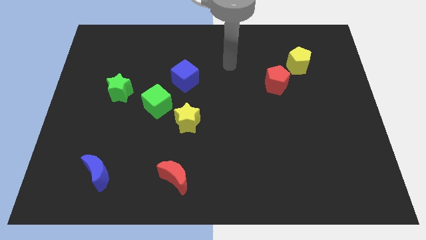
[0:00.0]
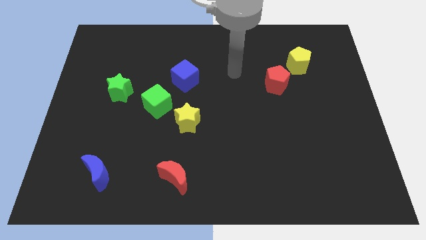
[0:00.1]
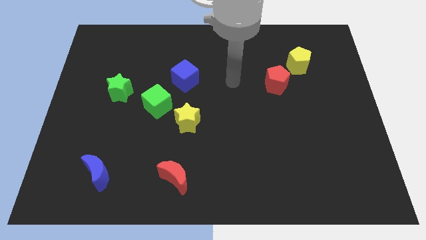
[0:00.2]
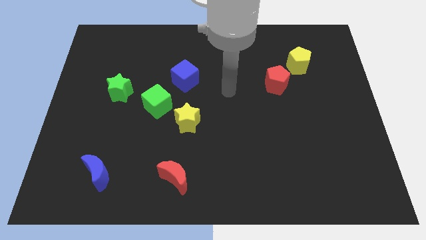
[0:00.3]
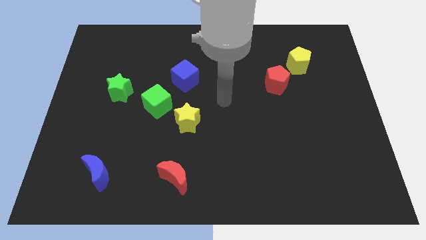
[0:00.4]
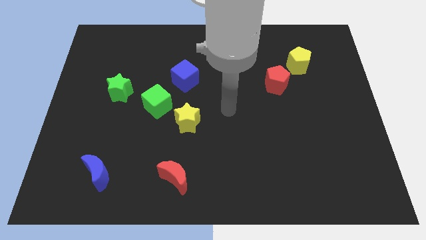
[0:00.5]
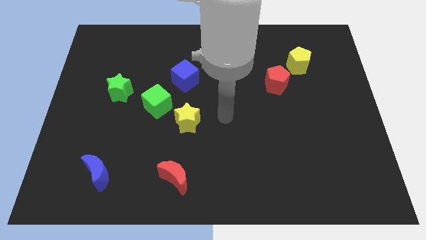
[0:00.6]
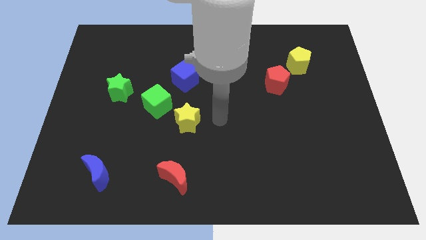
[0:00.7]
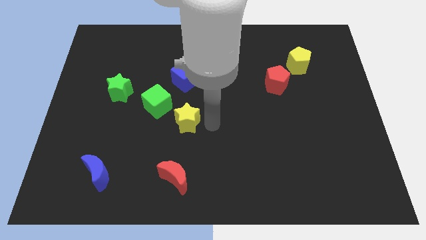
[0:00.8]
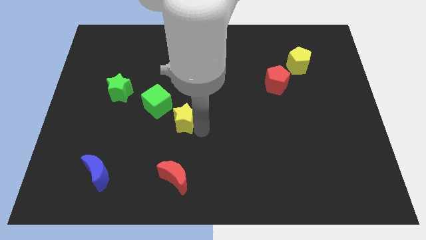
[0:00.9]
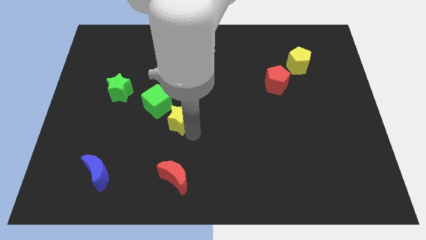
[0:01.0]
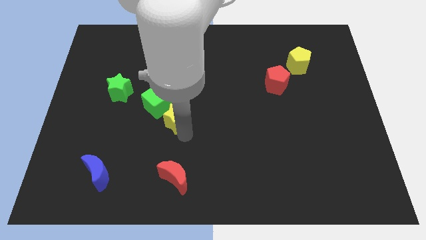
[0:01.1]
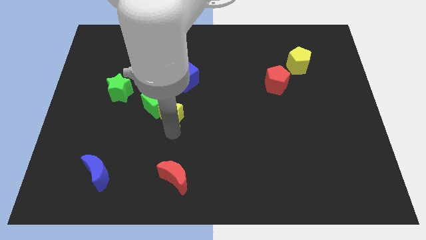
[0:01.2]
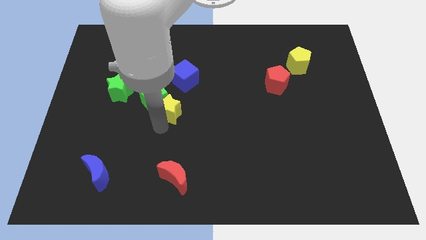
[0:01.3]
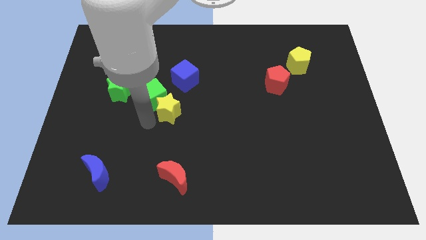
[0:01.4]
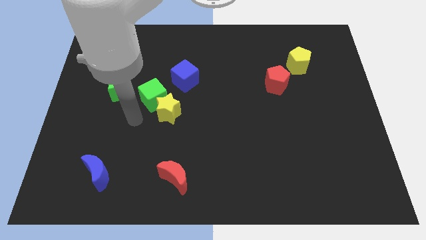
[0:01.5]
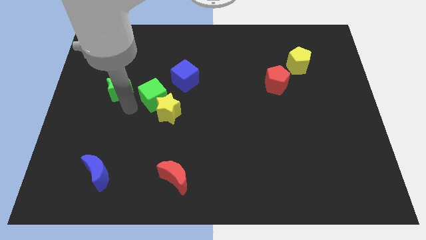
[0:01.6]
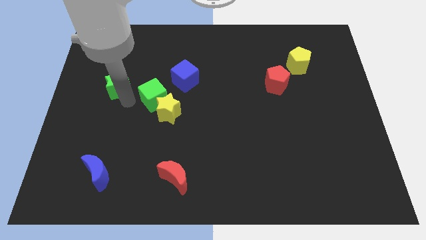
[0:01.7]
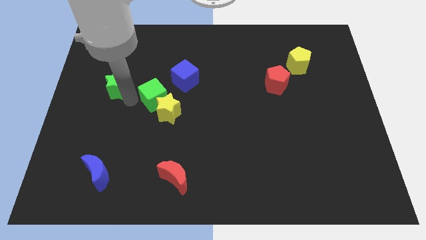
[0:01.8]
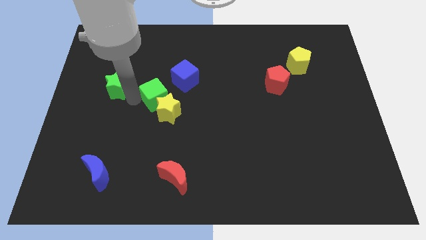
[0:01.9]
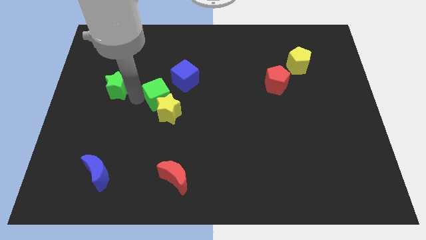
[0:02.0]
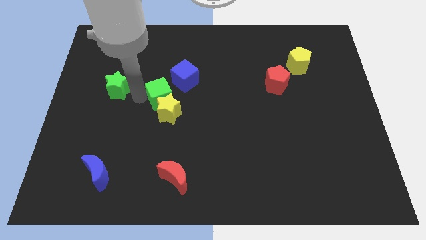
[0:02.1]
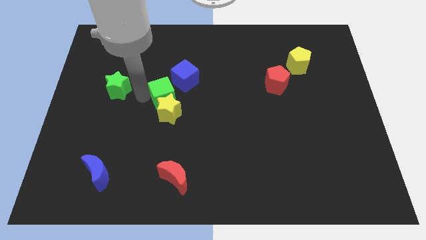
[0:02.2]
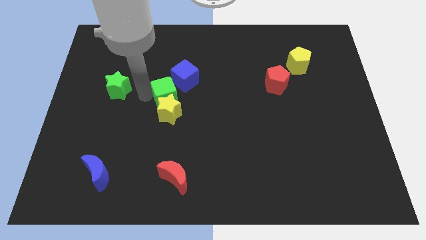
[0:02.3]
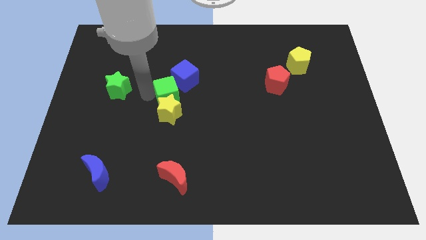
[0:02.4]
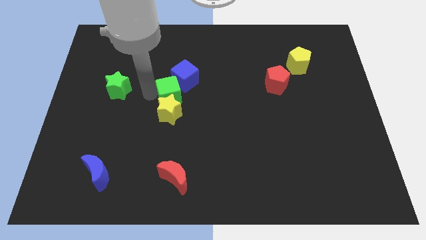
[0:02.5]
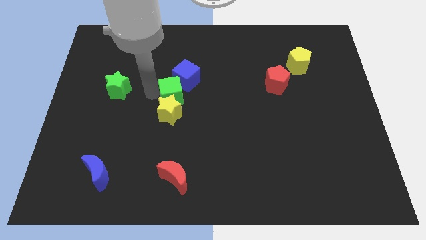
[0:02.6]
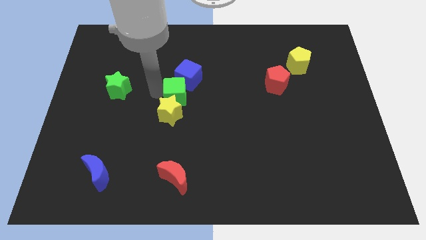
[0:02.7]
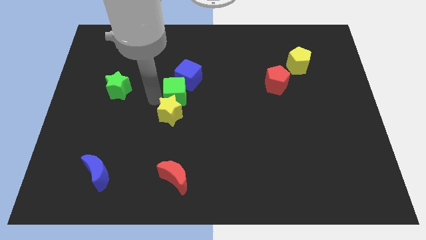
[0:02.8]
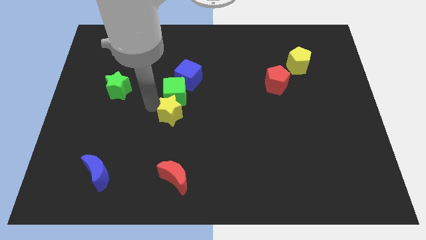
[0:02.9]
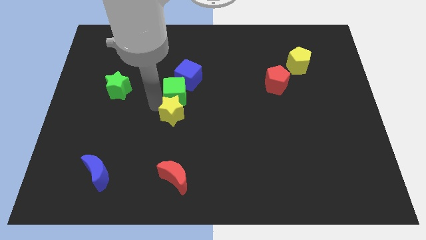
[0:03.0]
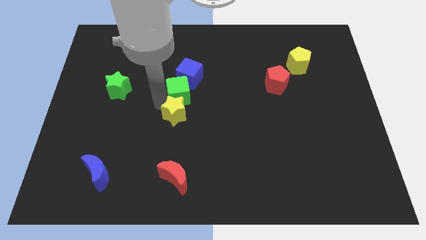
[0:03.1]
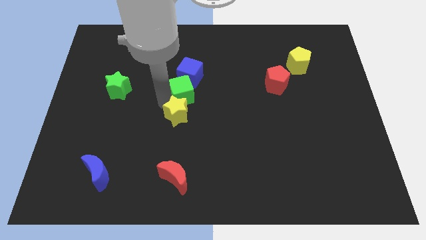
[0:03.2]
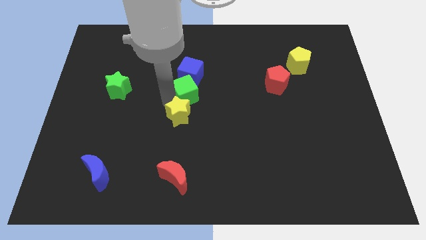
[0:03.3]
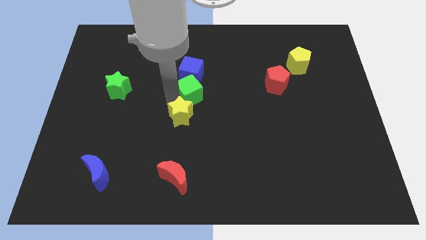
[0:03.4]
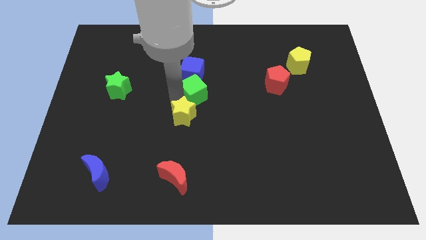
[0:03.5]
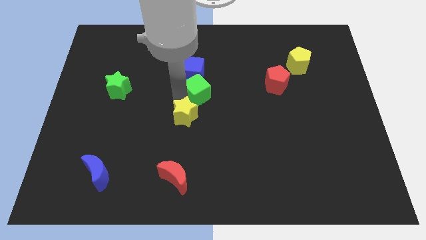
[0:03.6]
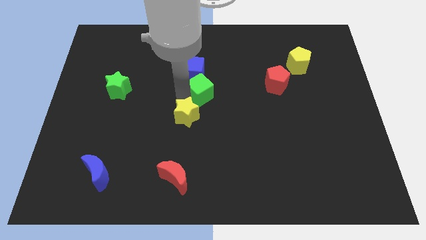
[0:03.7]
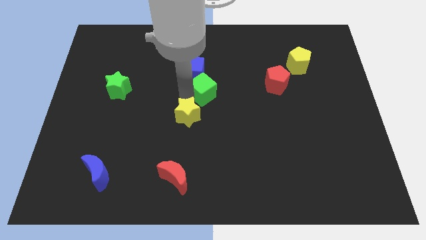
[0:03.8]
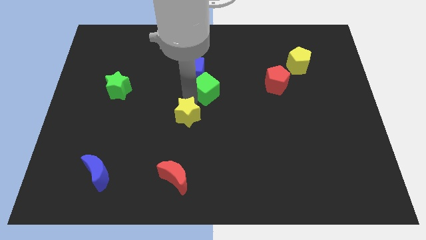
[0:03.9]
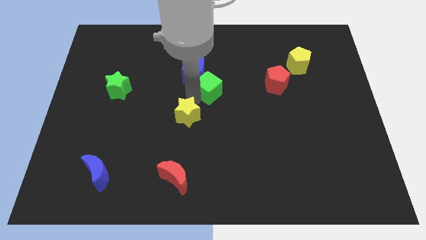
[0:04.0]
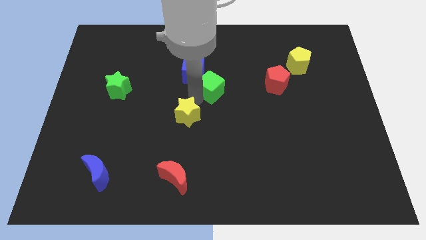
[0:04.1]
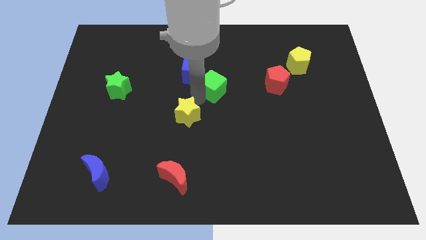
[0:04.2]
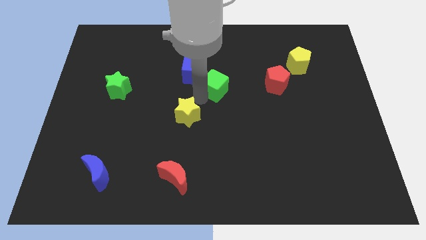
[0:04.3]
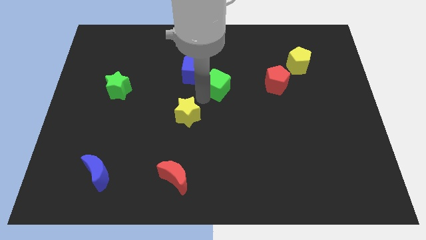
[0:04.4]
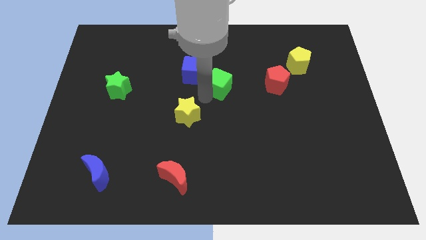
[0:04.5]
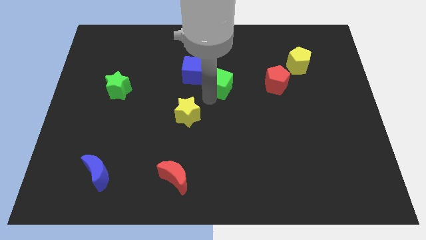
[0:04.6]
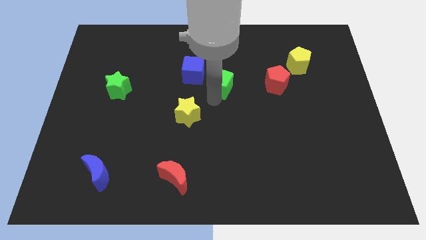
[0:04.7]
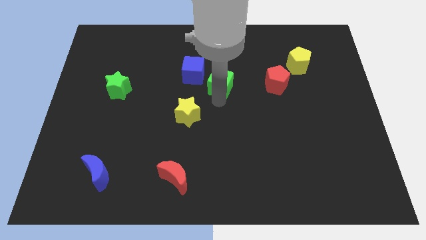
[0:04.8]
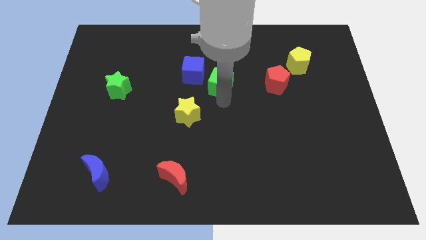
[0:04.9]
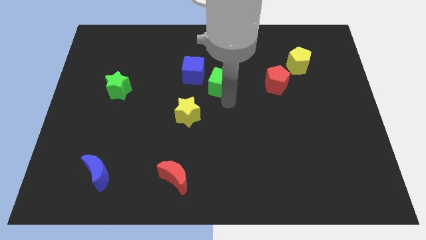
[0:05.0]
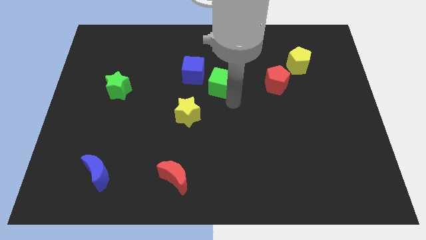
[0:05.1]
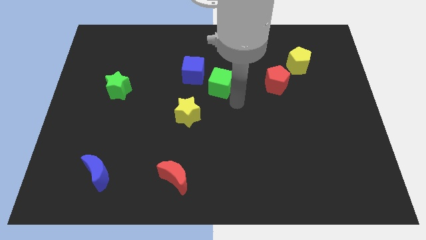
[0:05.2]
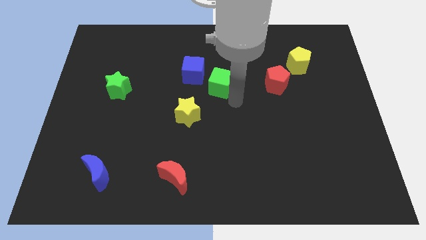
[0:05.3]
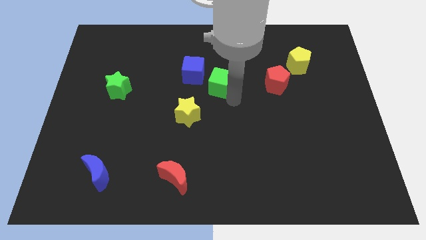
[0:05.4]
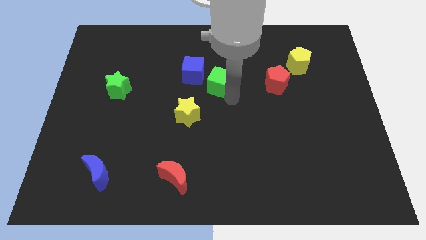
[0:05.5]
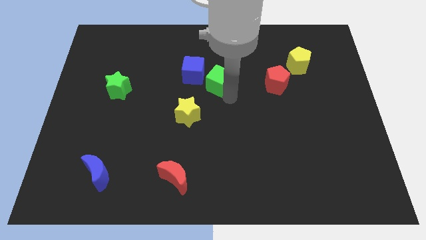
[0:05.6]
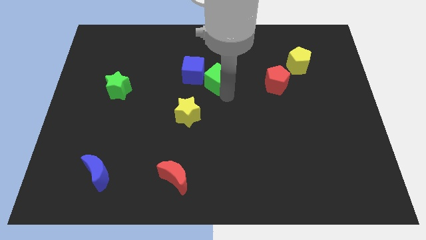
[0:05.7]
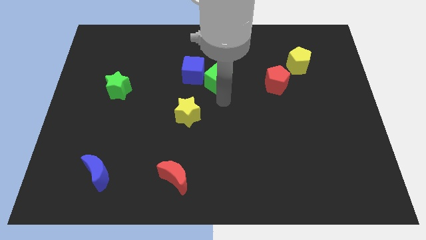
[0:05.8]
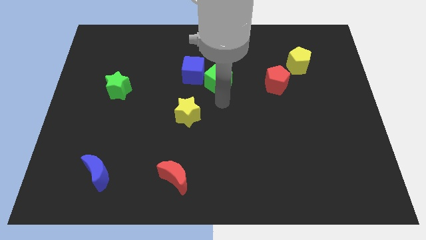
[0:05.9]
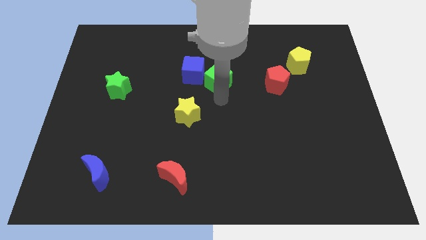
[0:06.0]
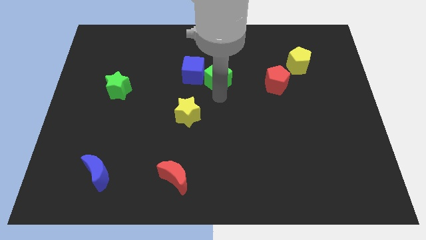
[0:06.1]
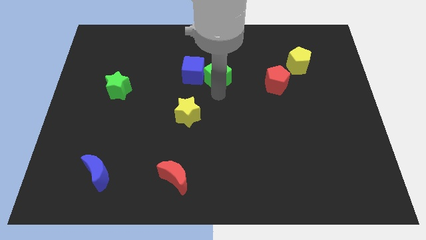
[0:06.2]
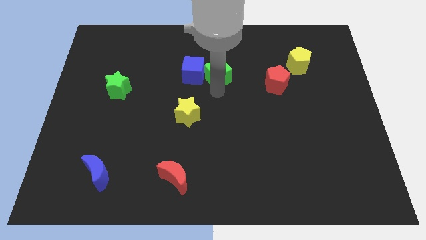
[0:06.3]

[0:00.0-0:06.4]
move the green cube to the top right of the blue cube

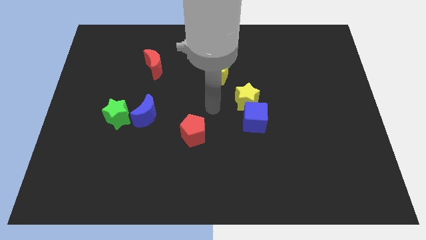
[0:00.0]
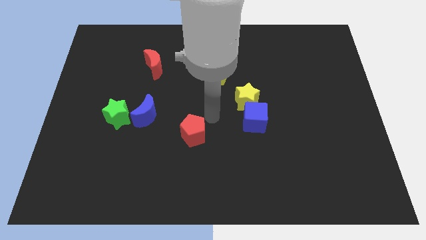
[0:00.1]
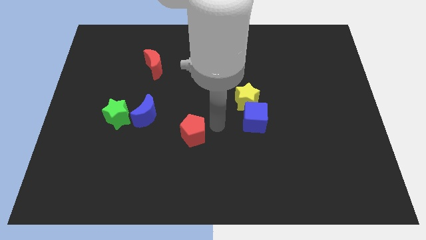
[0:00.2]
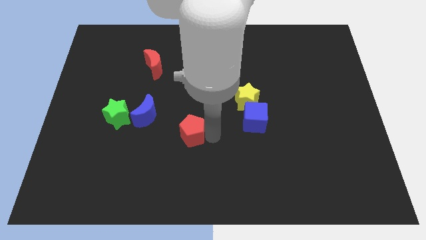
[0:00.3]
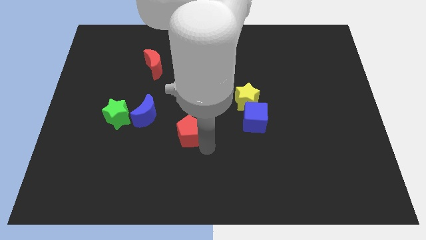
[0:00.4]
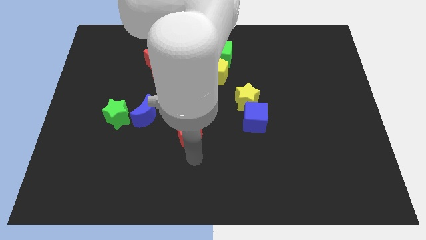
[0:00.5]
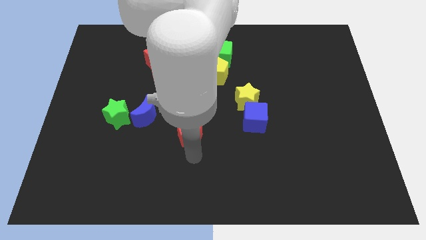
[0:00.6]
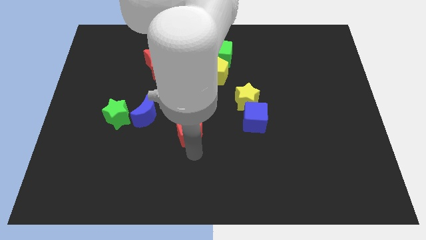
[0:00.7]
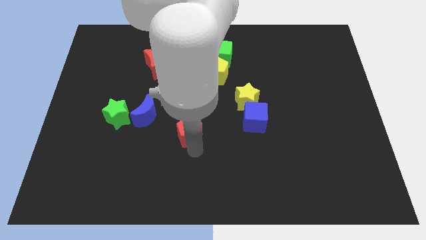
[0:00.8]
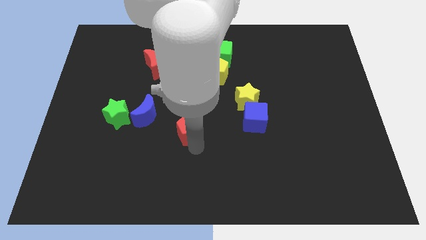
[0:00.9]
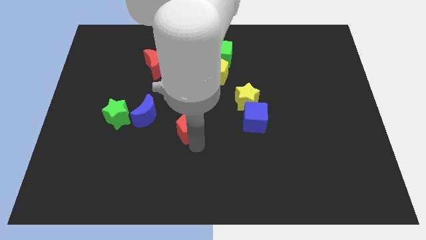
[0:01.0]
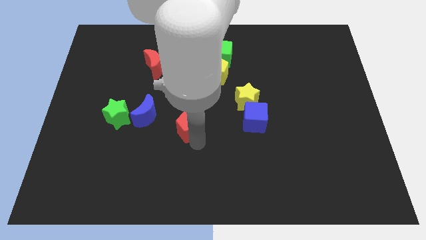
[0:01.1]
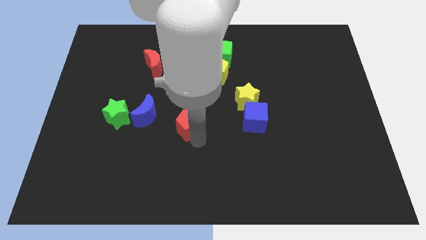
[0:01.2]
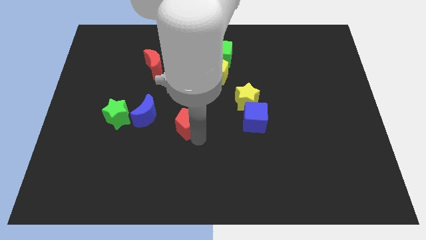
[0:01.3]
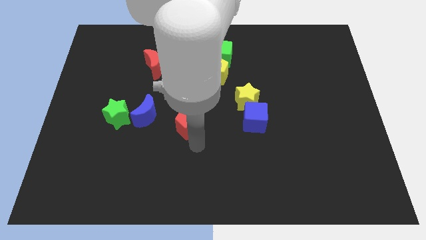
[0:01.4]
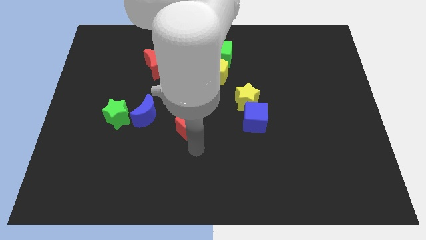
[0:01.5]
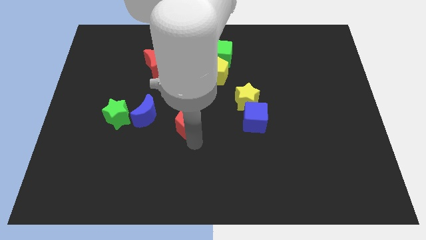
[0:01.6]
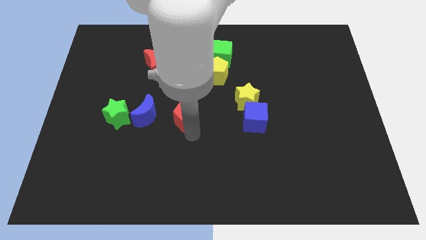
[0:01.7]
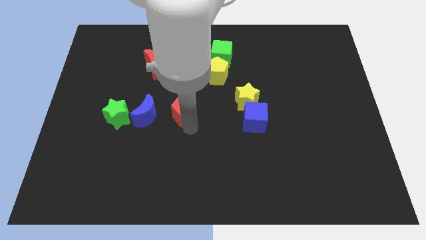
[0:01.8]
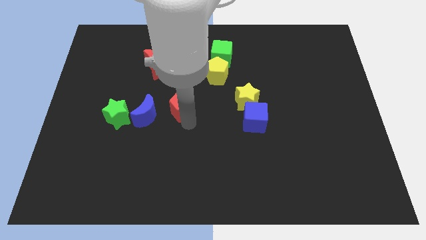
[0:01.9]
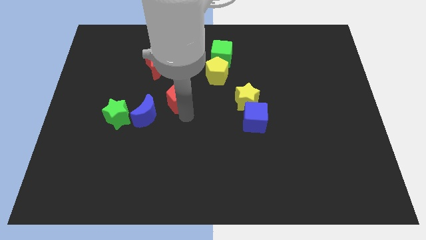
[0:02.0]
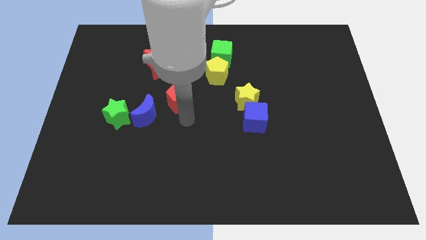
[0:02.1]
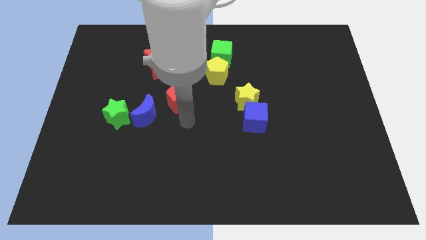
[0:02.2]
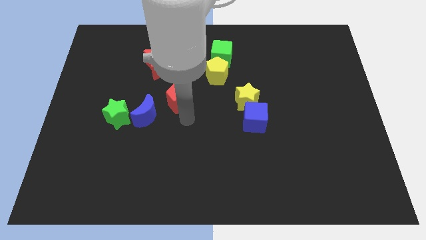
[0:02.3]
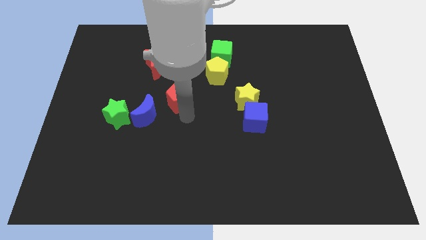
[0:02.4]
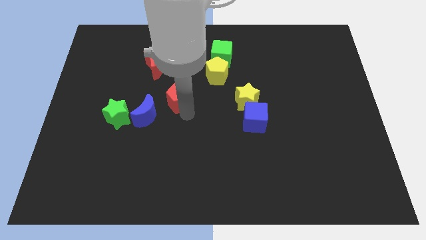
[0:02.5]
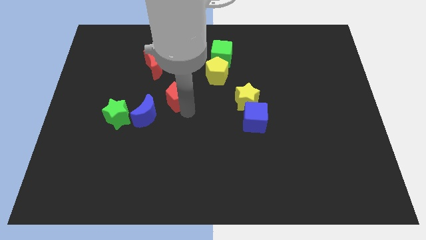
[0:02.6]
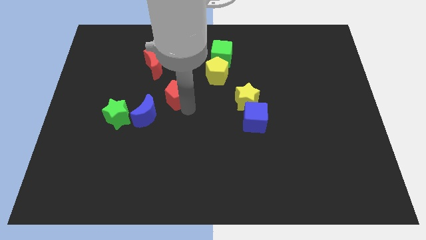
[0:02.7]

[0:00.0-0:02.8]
push the red pentagon to the bottom right of the red moon
